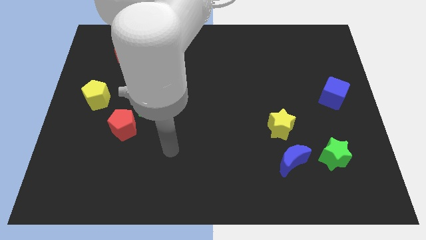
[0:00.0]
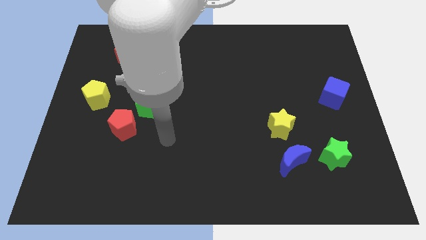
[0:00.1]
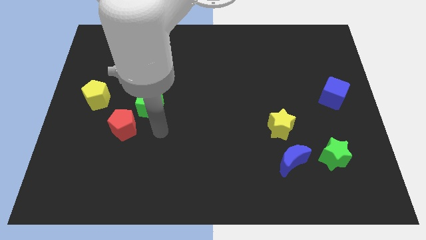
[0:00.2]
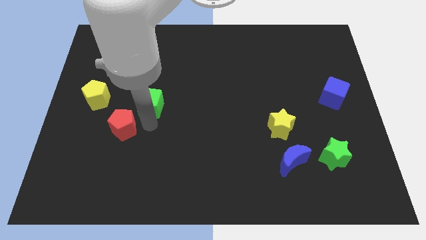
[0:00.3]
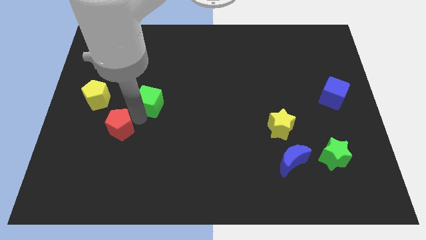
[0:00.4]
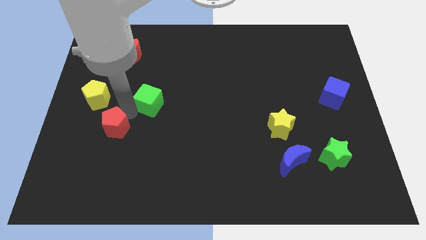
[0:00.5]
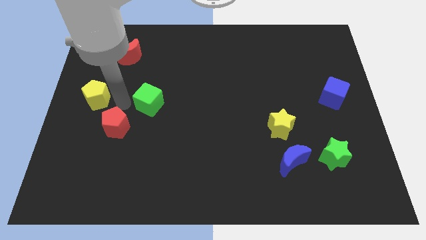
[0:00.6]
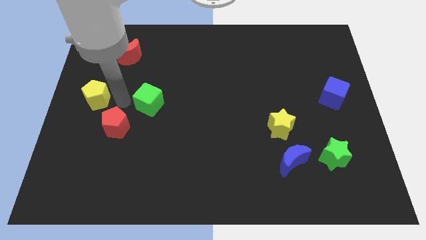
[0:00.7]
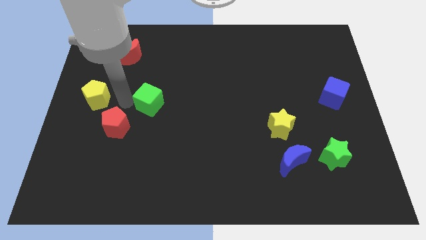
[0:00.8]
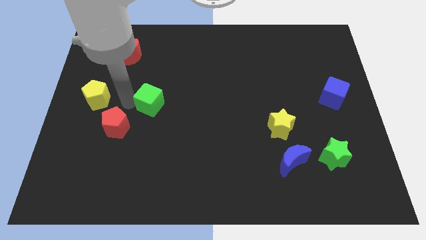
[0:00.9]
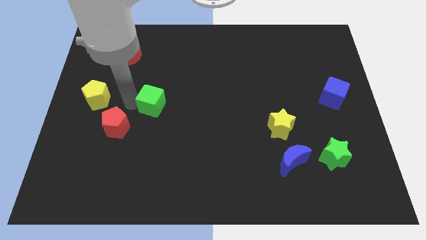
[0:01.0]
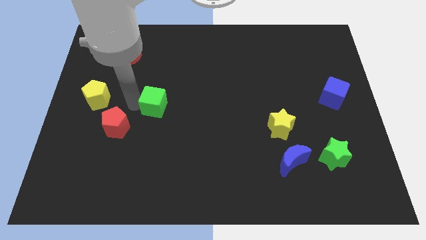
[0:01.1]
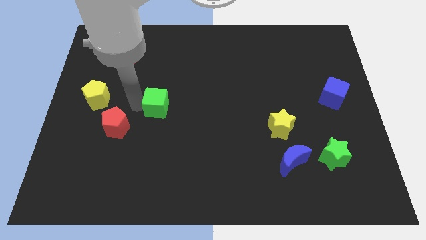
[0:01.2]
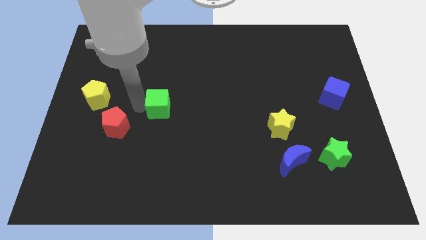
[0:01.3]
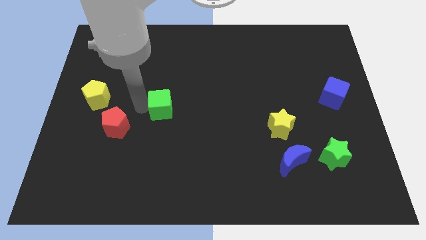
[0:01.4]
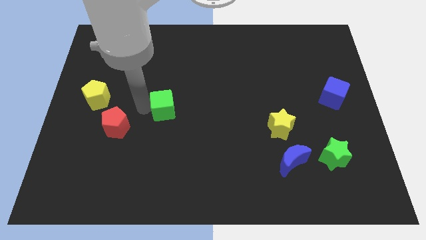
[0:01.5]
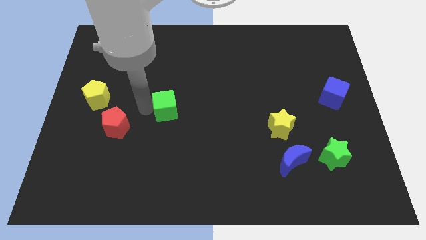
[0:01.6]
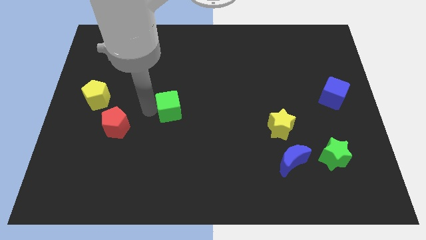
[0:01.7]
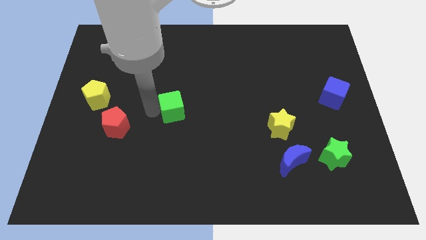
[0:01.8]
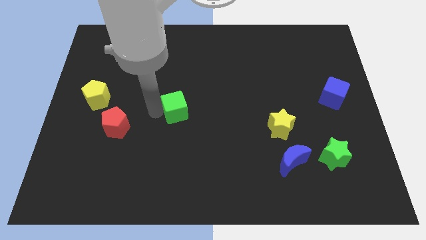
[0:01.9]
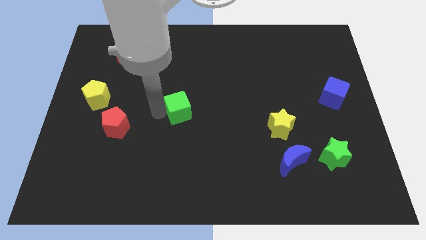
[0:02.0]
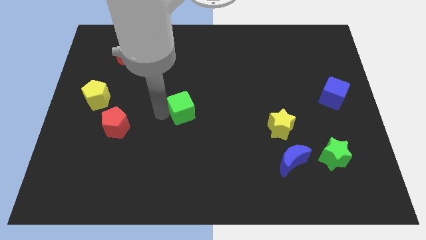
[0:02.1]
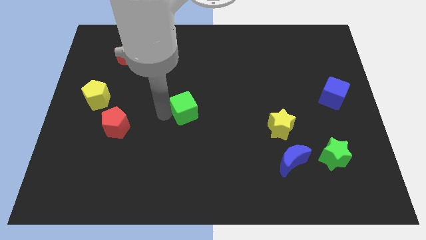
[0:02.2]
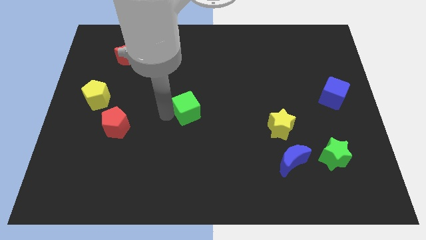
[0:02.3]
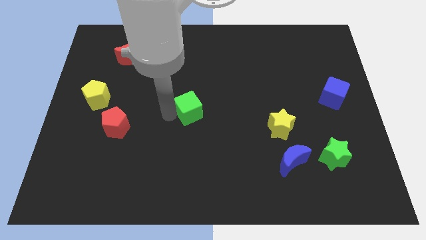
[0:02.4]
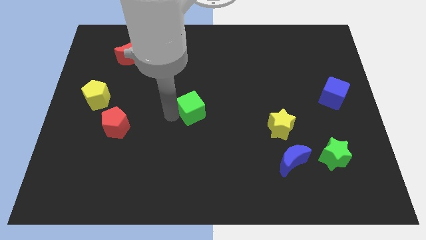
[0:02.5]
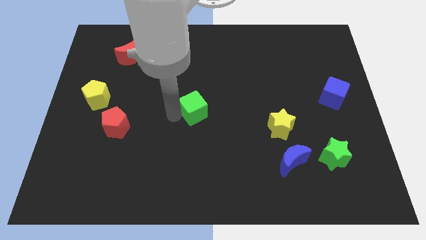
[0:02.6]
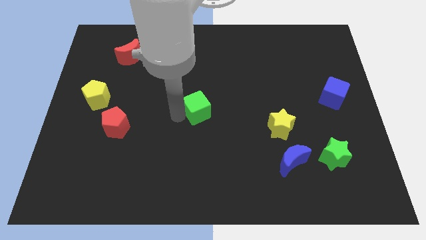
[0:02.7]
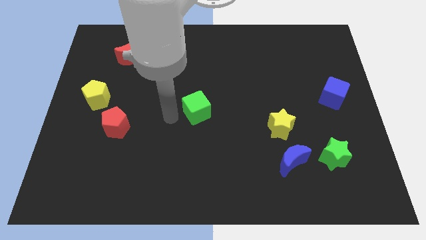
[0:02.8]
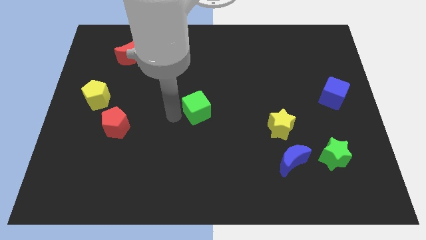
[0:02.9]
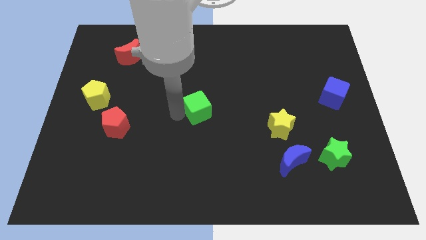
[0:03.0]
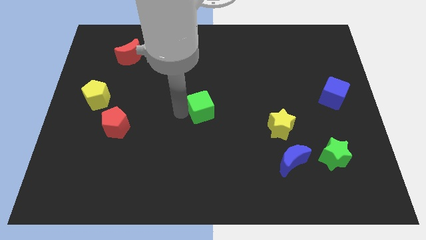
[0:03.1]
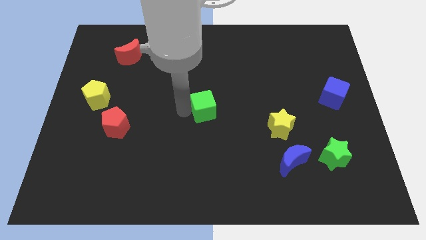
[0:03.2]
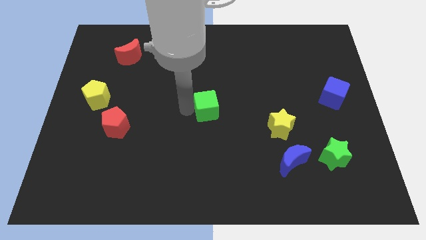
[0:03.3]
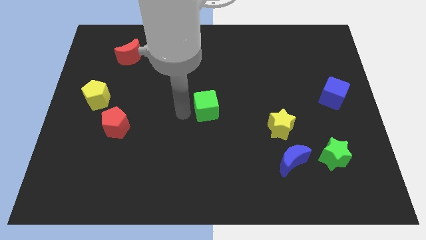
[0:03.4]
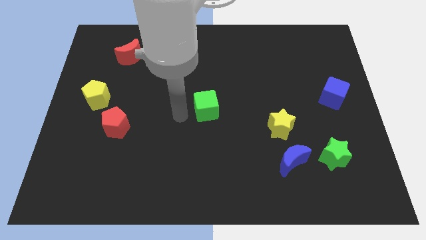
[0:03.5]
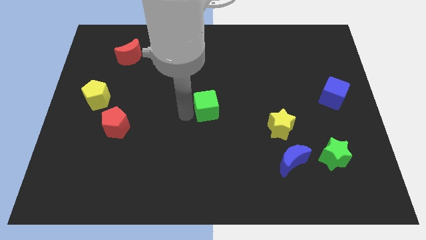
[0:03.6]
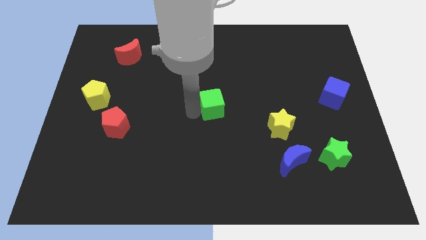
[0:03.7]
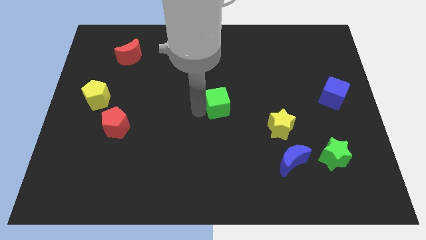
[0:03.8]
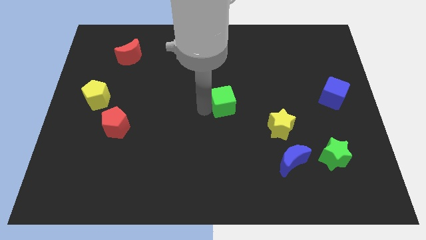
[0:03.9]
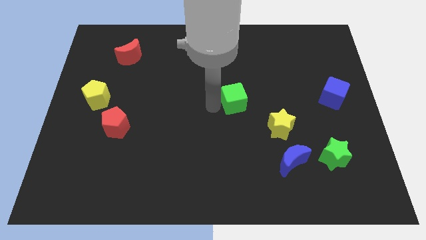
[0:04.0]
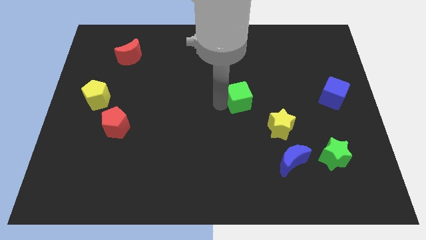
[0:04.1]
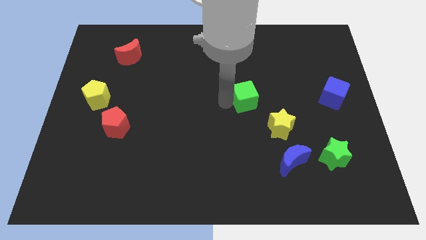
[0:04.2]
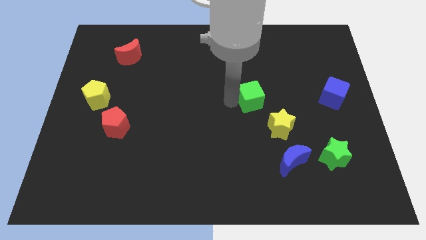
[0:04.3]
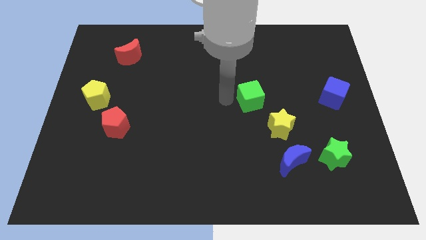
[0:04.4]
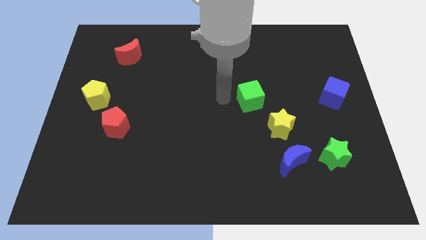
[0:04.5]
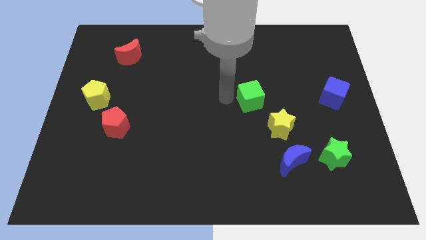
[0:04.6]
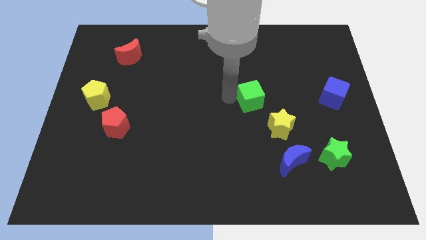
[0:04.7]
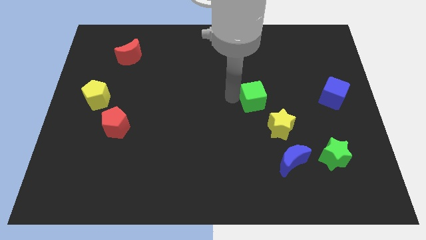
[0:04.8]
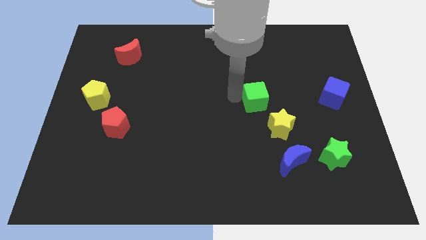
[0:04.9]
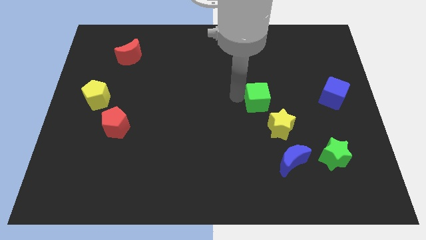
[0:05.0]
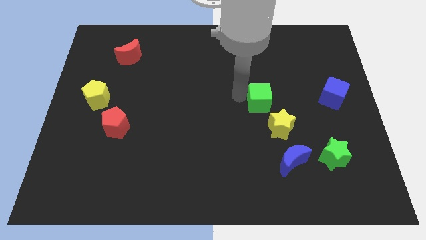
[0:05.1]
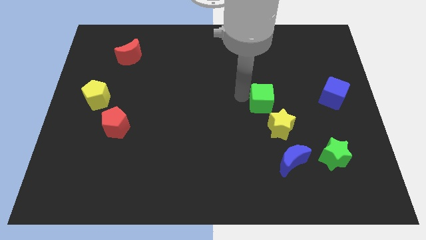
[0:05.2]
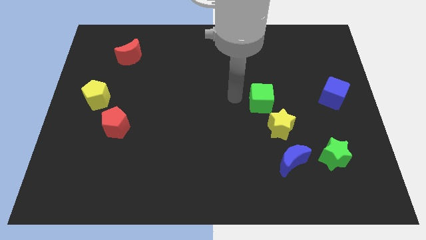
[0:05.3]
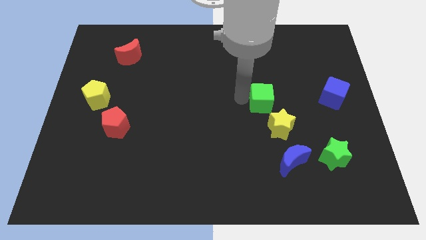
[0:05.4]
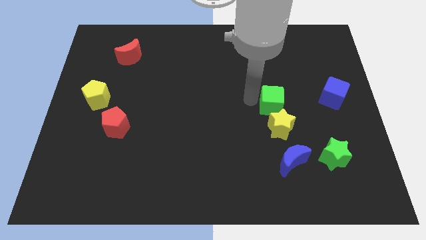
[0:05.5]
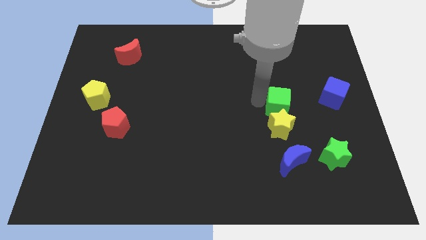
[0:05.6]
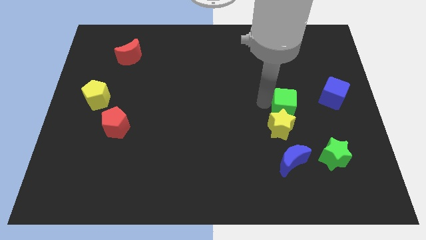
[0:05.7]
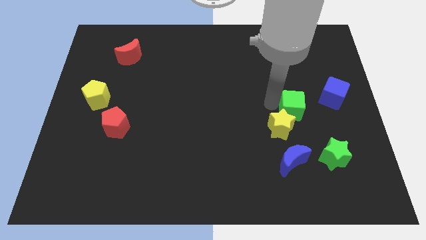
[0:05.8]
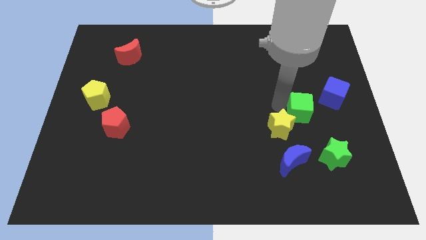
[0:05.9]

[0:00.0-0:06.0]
move the green cube to the bottom left of the blue cube

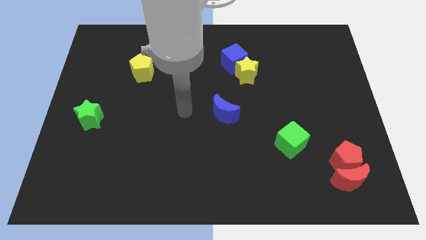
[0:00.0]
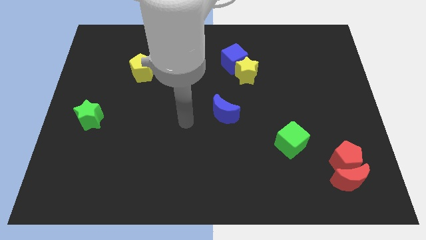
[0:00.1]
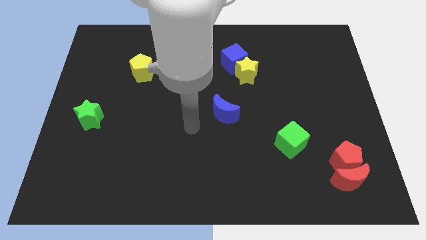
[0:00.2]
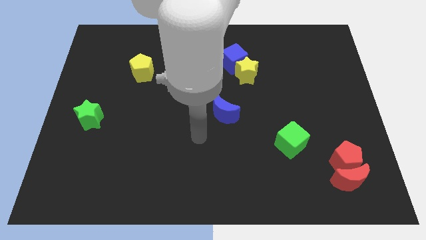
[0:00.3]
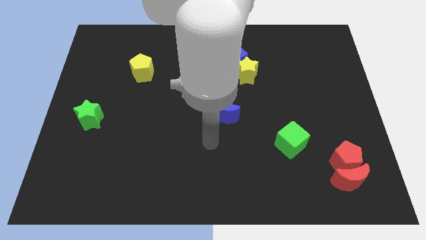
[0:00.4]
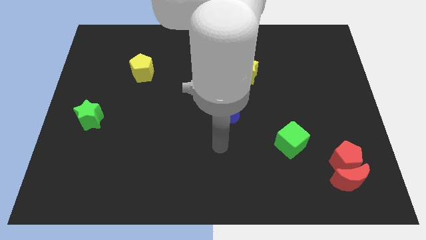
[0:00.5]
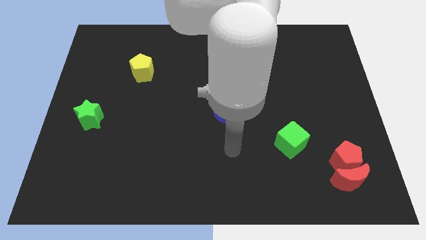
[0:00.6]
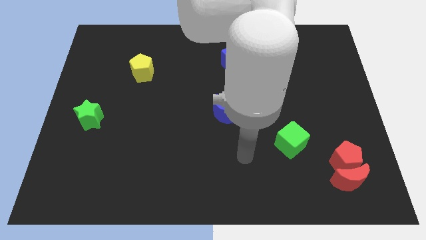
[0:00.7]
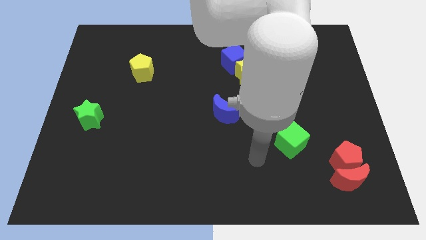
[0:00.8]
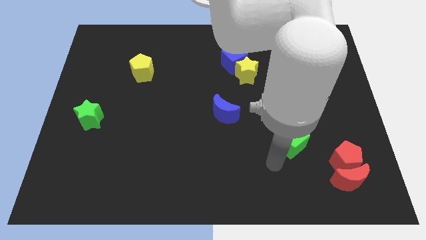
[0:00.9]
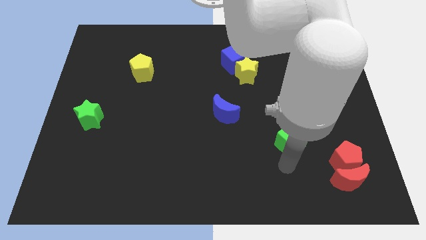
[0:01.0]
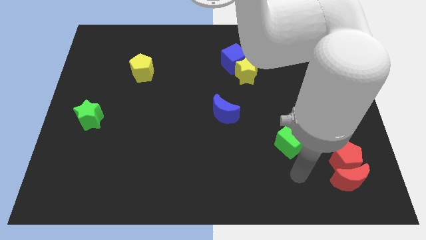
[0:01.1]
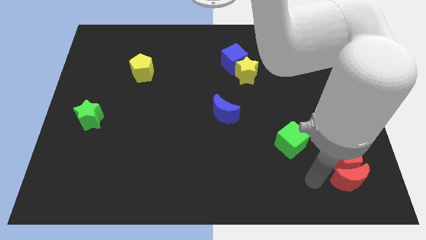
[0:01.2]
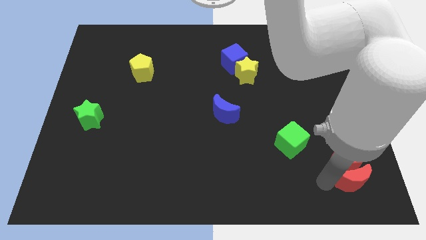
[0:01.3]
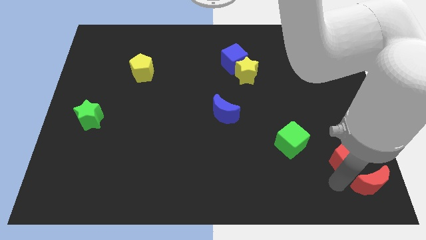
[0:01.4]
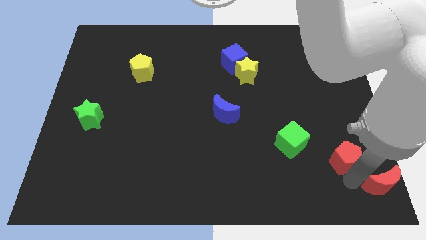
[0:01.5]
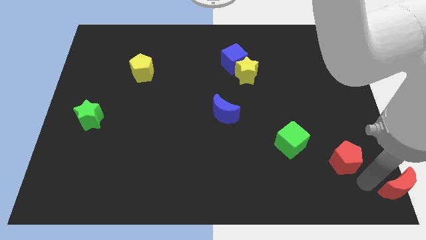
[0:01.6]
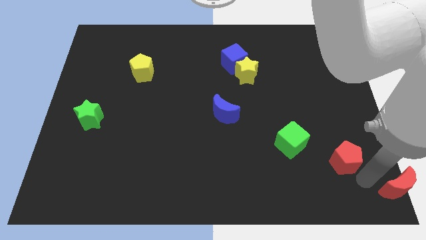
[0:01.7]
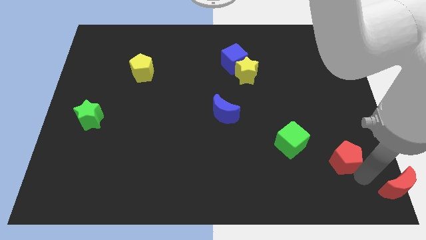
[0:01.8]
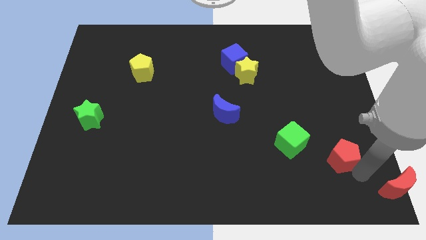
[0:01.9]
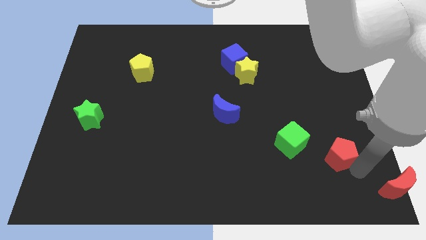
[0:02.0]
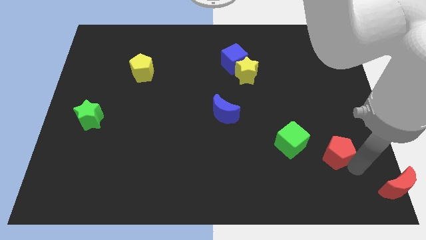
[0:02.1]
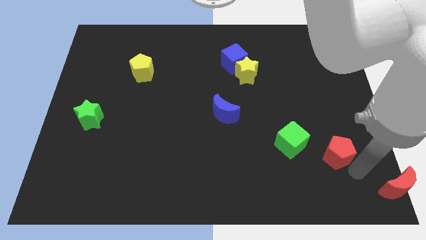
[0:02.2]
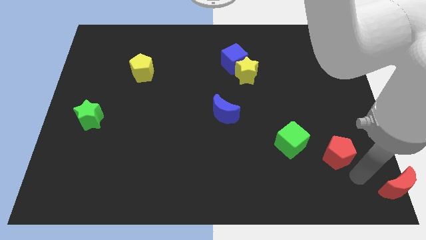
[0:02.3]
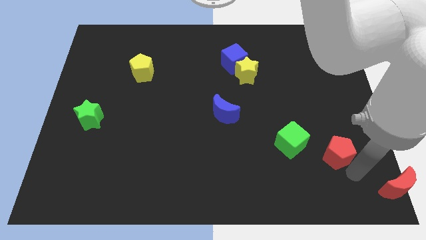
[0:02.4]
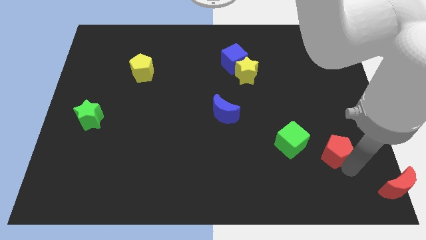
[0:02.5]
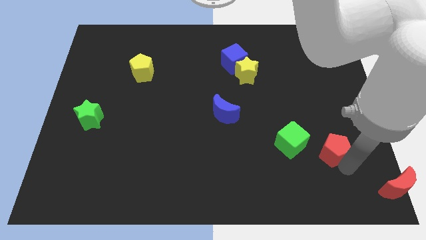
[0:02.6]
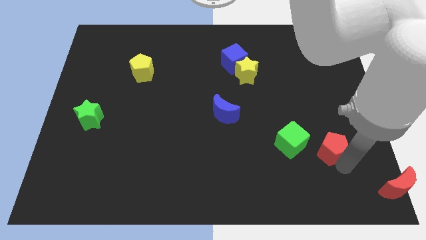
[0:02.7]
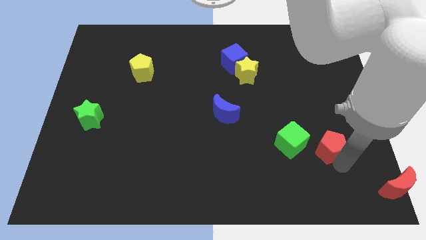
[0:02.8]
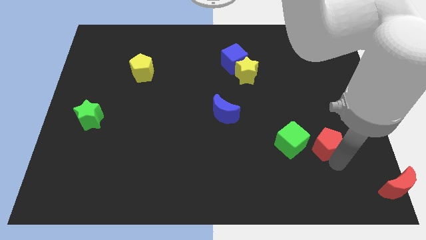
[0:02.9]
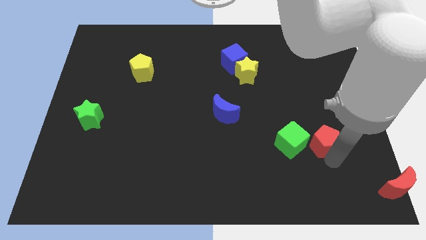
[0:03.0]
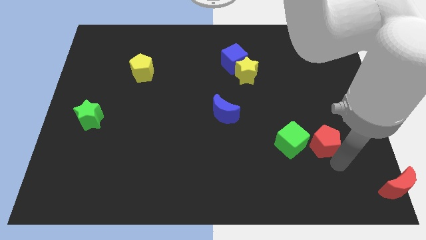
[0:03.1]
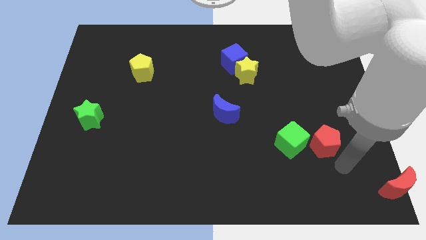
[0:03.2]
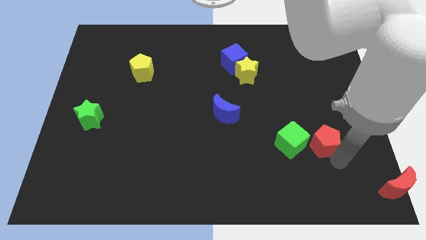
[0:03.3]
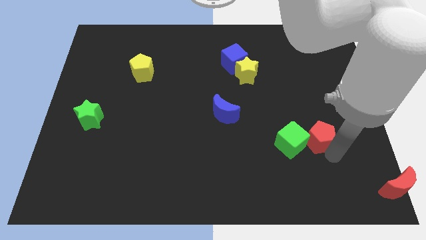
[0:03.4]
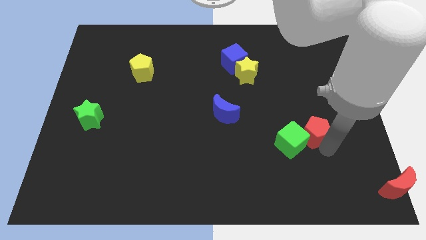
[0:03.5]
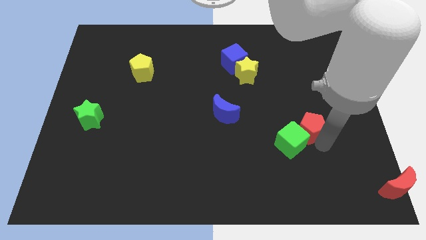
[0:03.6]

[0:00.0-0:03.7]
move the red pentagon to the top side of the green cube
